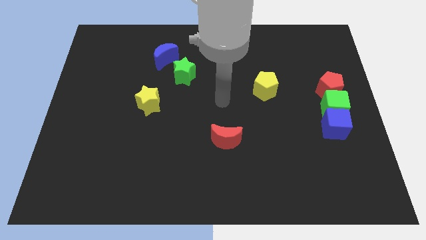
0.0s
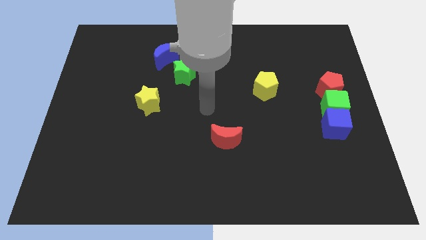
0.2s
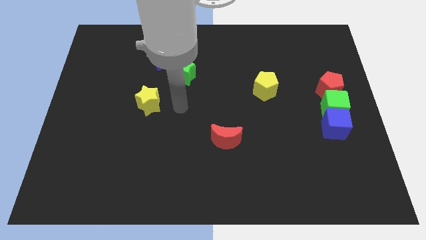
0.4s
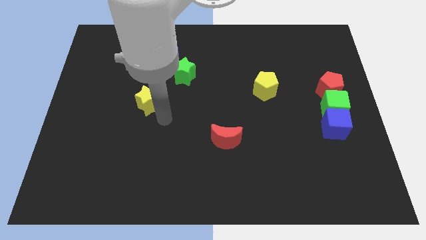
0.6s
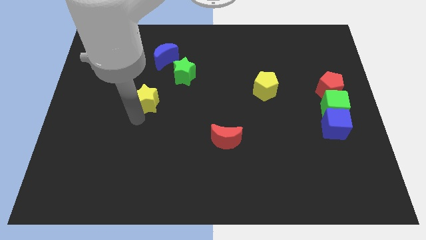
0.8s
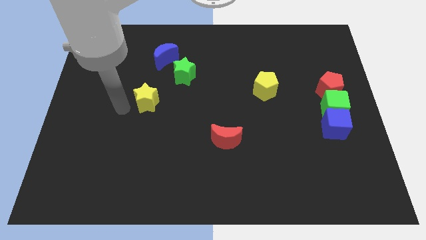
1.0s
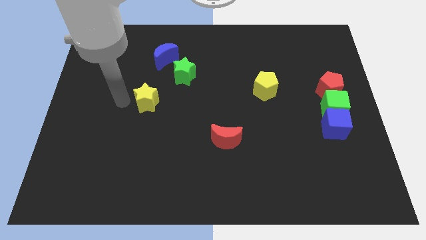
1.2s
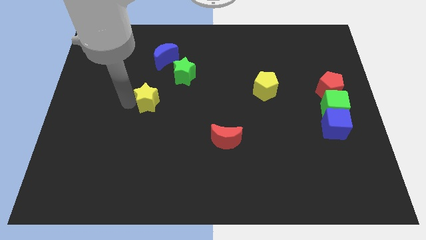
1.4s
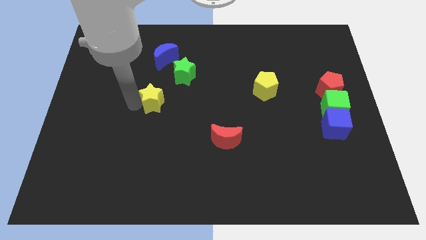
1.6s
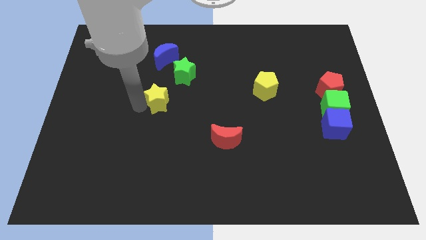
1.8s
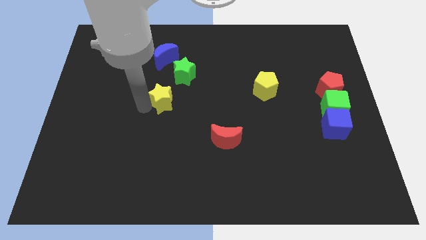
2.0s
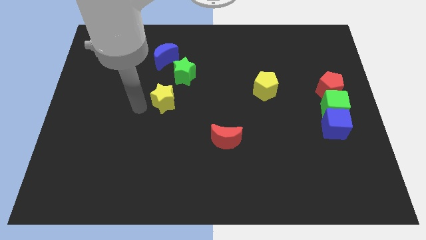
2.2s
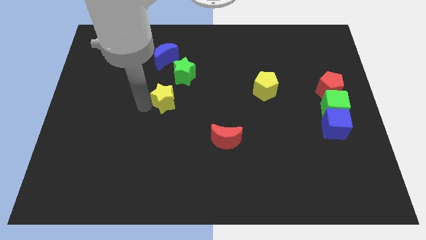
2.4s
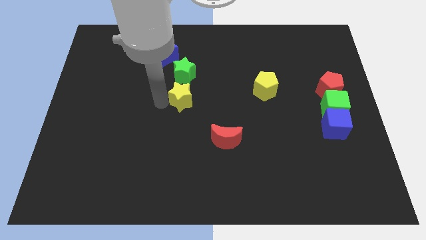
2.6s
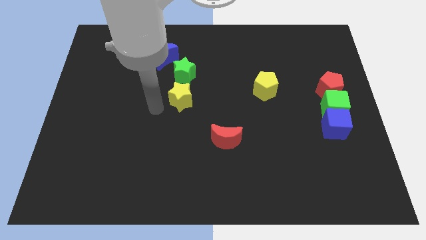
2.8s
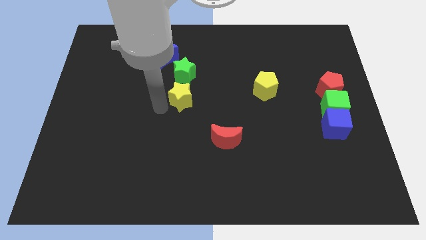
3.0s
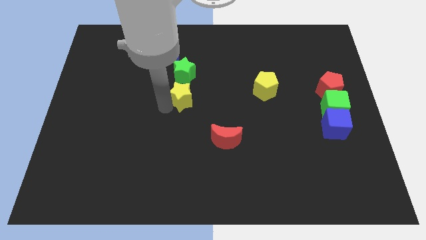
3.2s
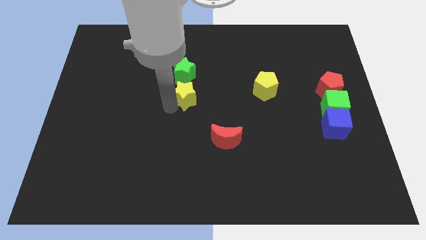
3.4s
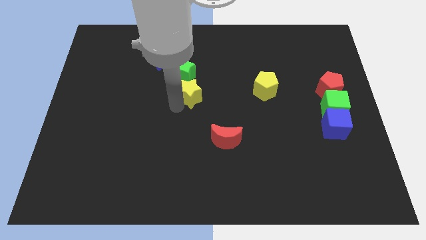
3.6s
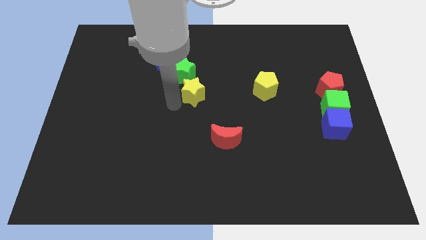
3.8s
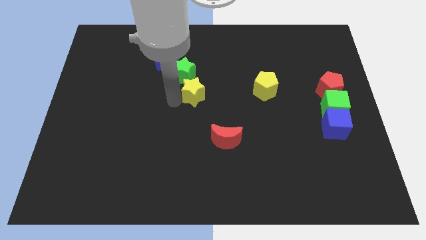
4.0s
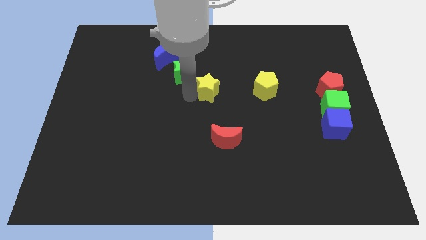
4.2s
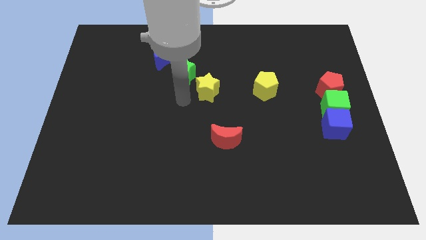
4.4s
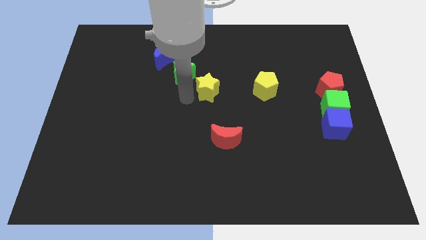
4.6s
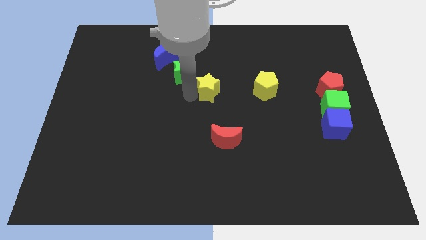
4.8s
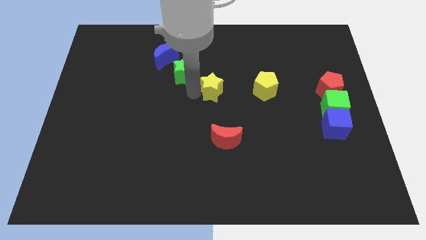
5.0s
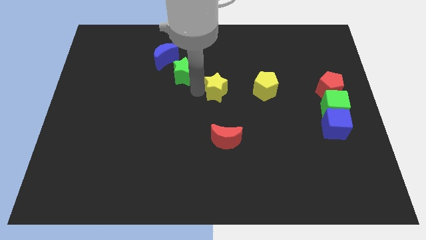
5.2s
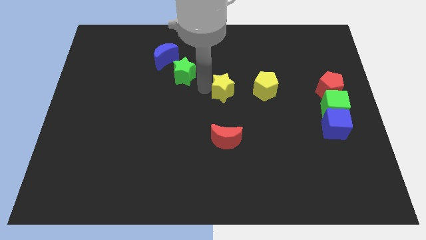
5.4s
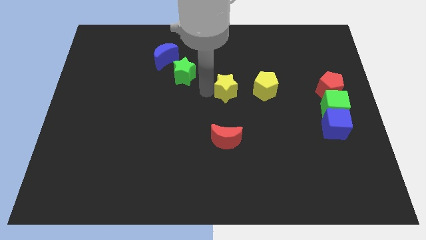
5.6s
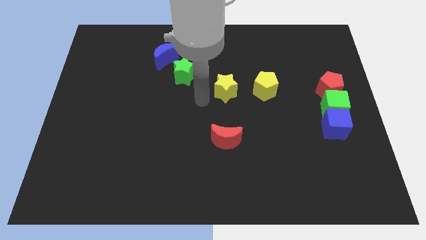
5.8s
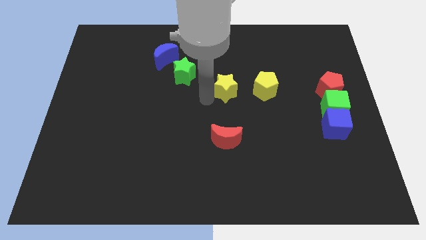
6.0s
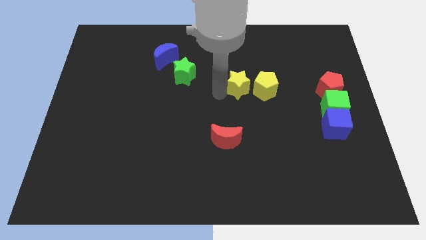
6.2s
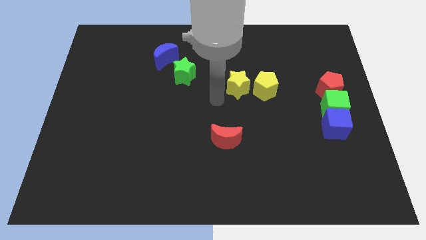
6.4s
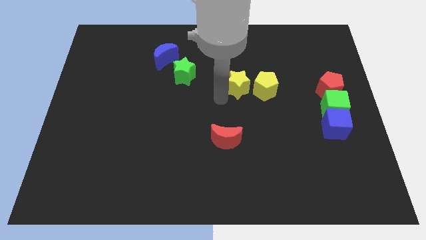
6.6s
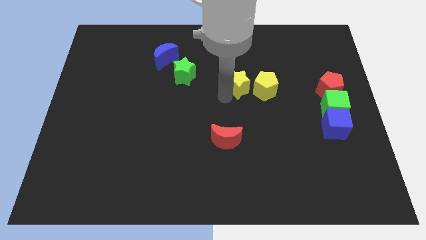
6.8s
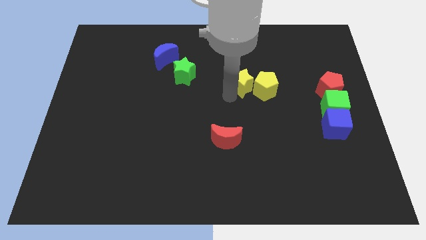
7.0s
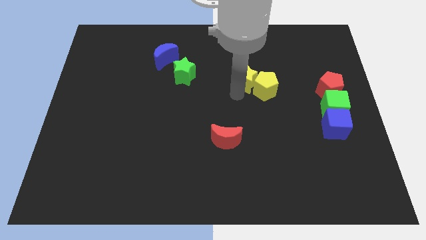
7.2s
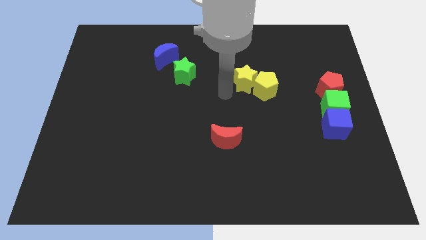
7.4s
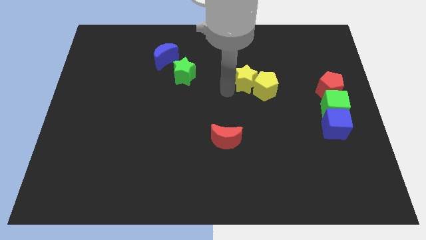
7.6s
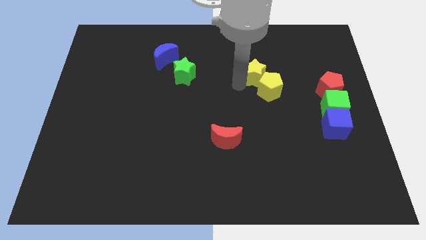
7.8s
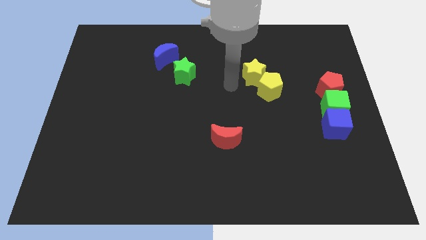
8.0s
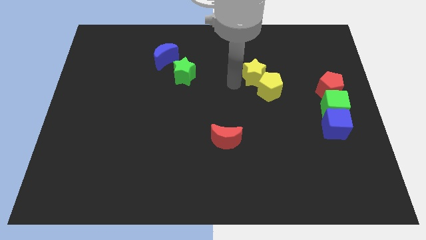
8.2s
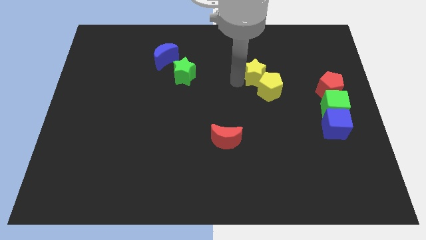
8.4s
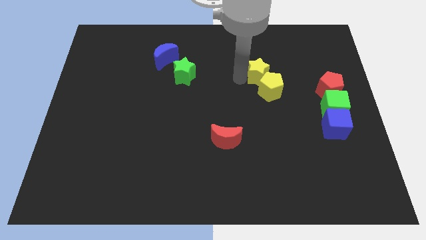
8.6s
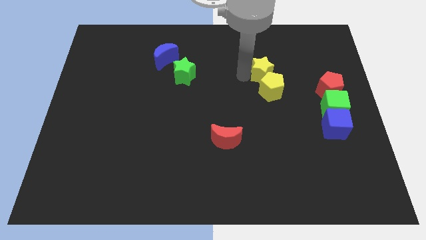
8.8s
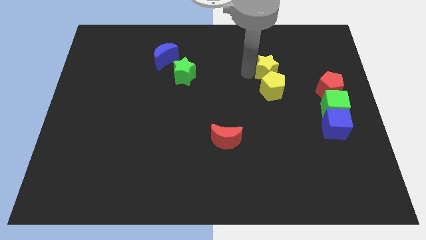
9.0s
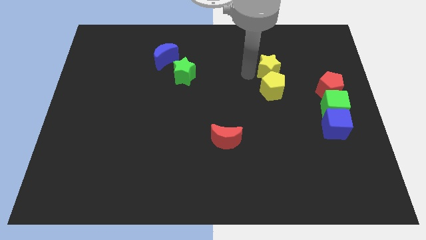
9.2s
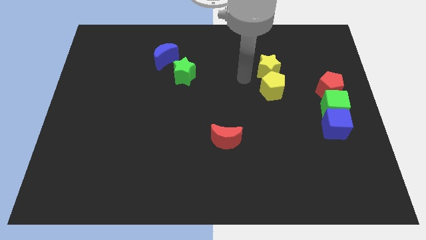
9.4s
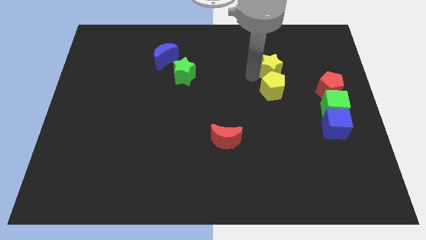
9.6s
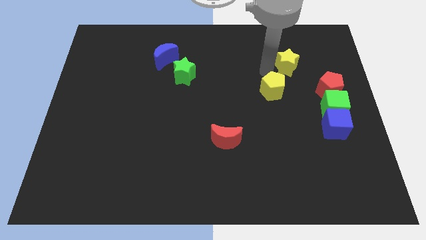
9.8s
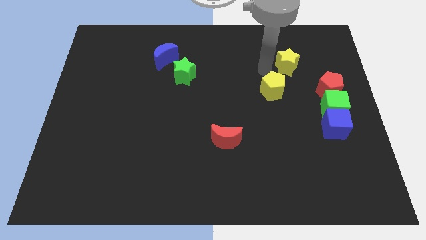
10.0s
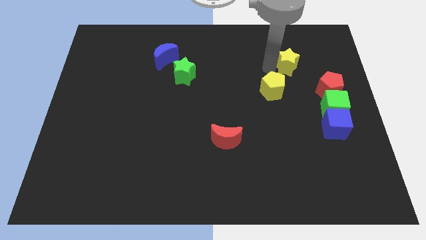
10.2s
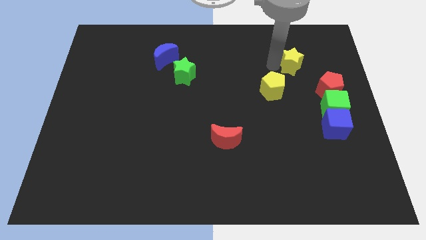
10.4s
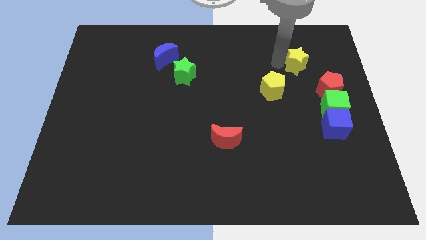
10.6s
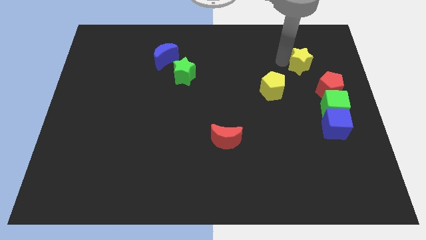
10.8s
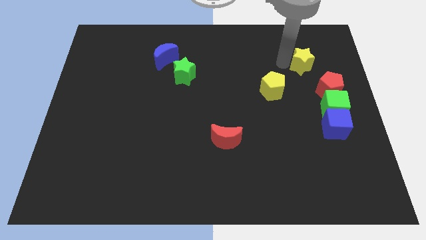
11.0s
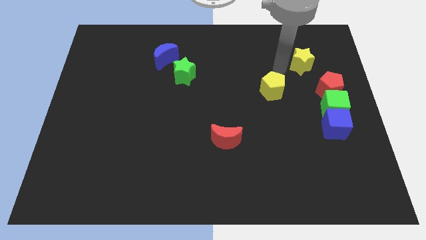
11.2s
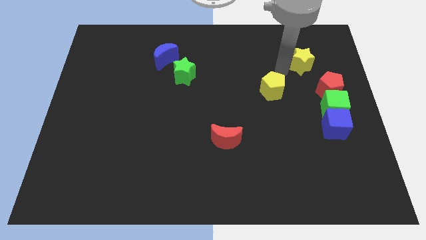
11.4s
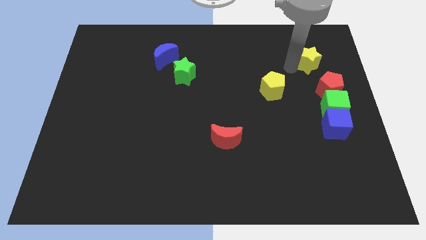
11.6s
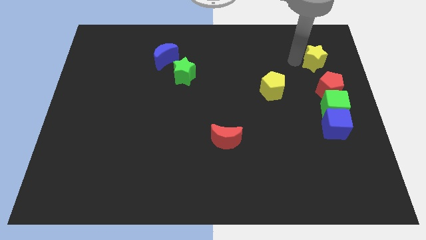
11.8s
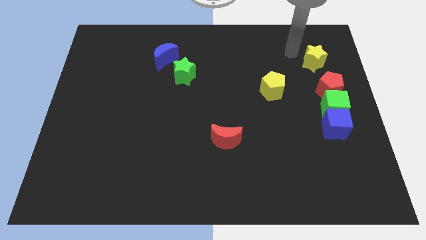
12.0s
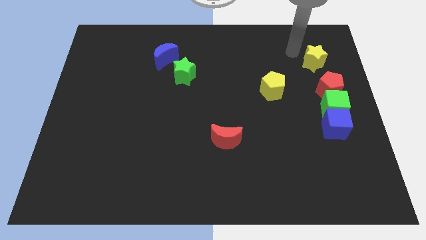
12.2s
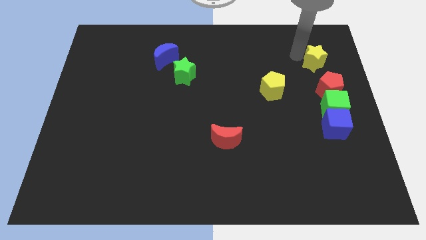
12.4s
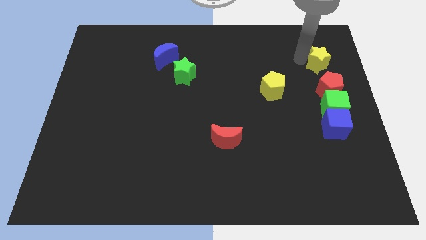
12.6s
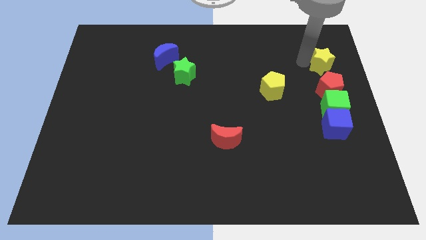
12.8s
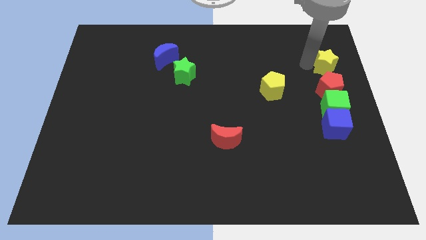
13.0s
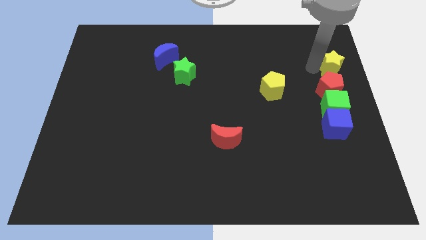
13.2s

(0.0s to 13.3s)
put the yellow star to the right side of the board
